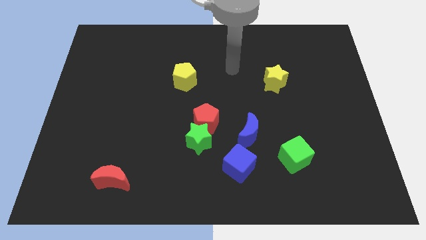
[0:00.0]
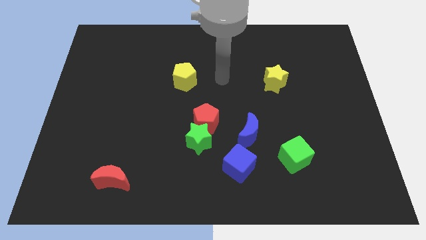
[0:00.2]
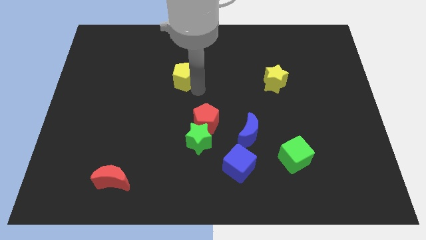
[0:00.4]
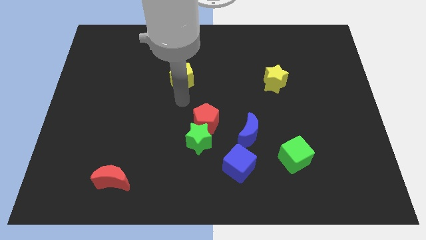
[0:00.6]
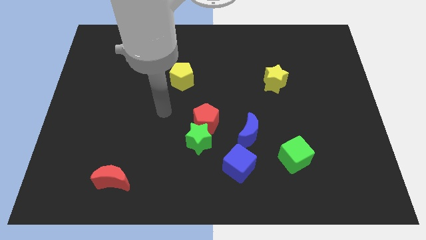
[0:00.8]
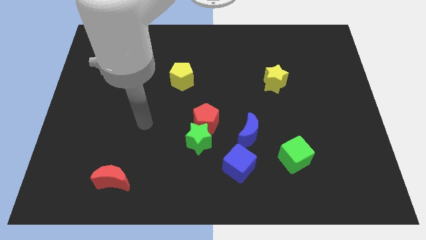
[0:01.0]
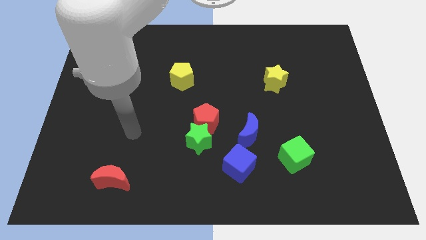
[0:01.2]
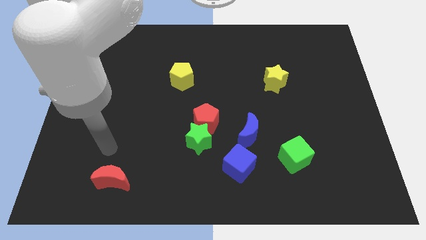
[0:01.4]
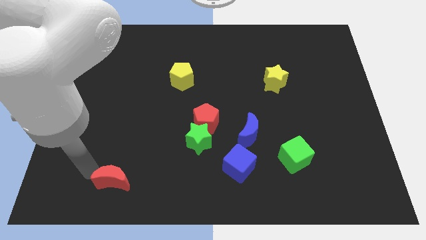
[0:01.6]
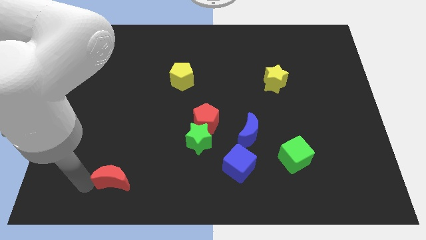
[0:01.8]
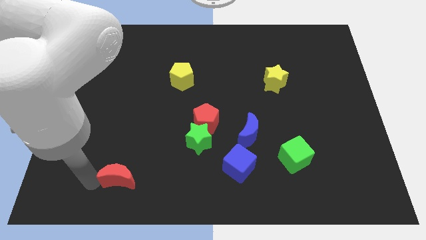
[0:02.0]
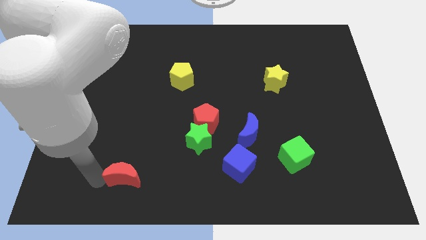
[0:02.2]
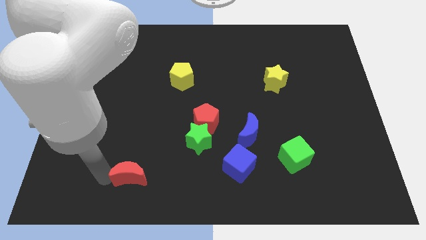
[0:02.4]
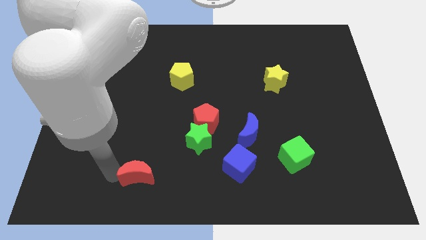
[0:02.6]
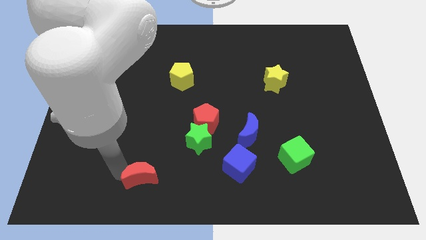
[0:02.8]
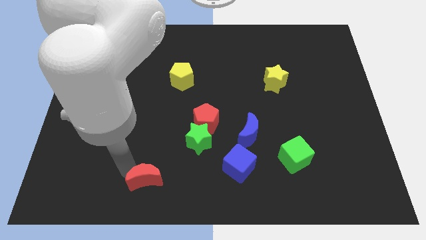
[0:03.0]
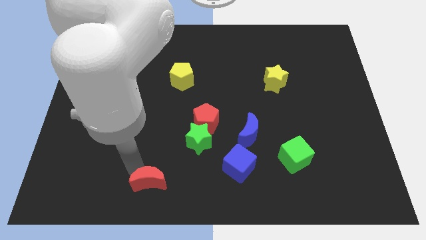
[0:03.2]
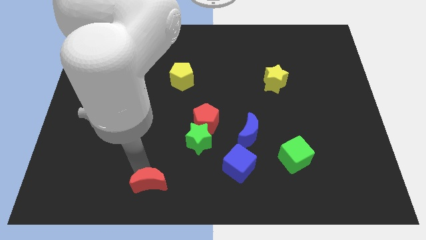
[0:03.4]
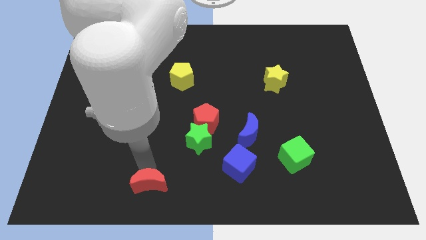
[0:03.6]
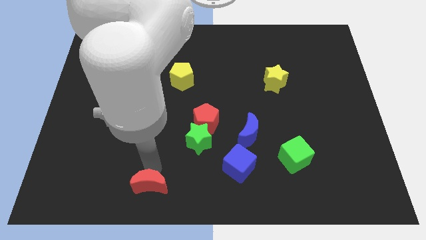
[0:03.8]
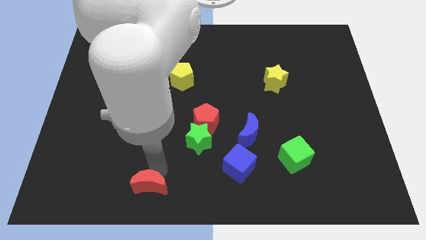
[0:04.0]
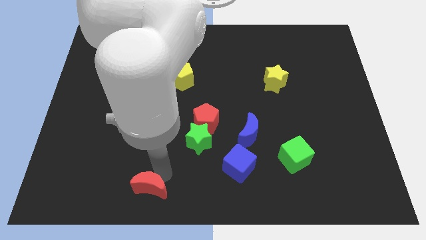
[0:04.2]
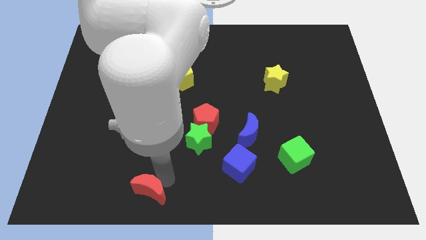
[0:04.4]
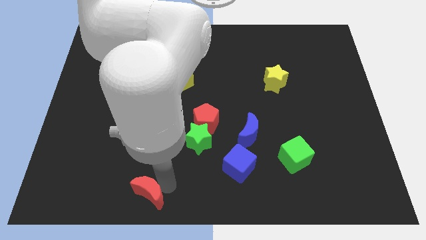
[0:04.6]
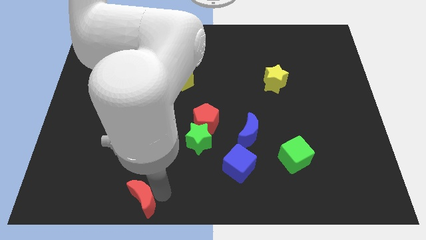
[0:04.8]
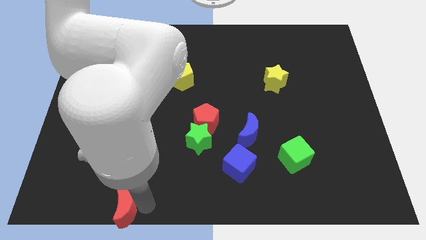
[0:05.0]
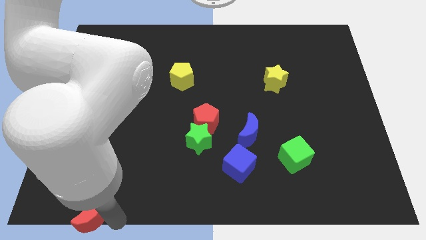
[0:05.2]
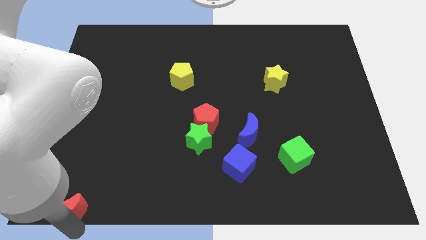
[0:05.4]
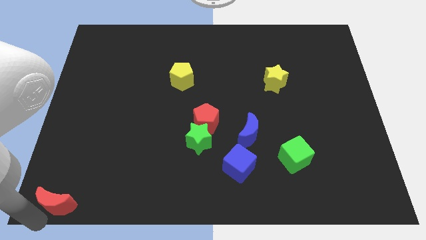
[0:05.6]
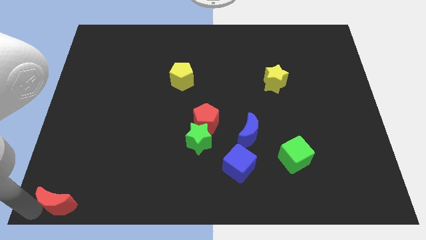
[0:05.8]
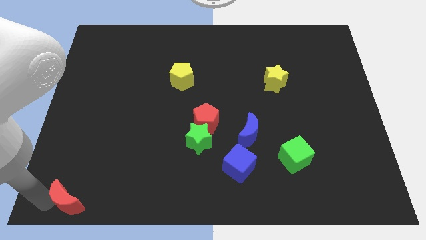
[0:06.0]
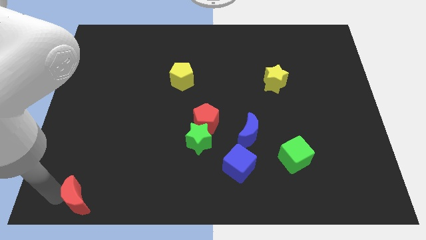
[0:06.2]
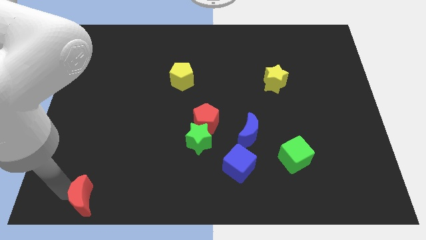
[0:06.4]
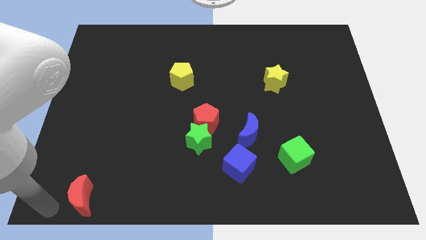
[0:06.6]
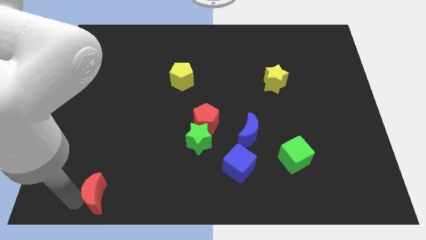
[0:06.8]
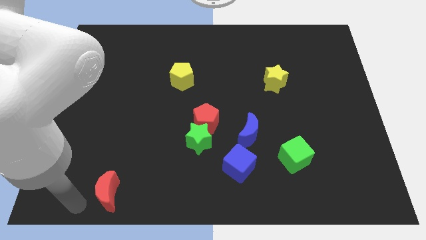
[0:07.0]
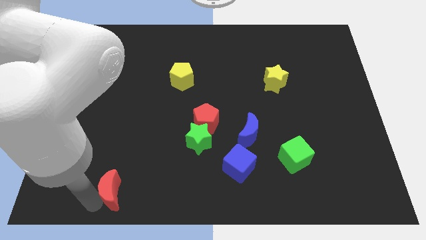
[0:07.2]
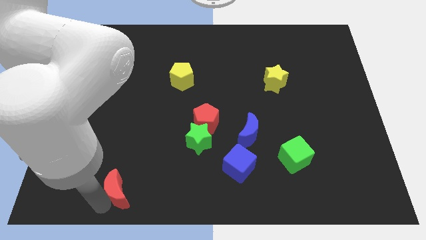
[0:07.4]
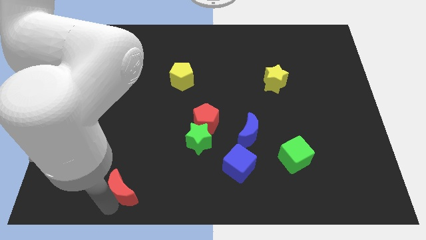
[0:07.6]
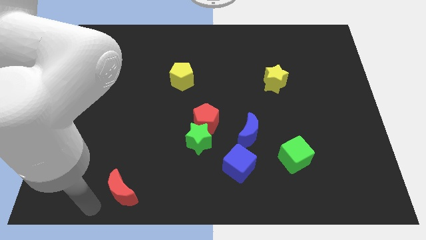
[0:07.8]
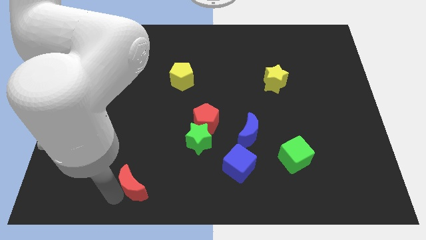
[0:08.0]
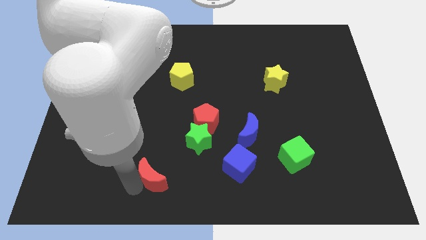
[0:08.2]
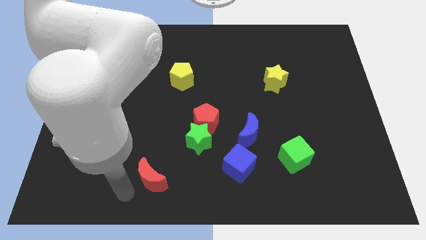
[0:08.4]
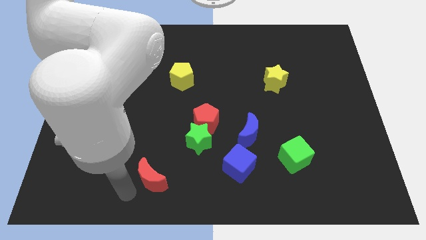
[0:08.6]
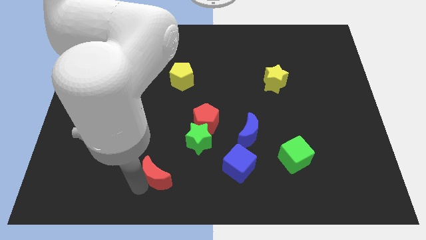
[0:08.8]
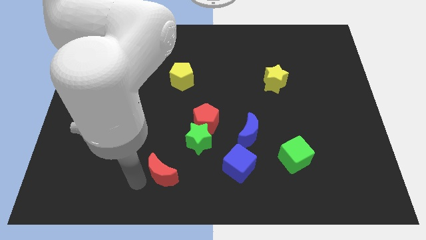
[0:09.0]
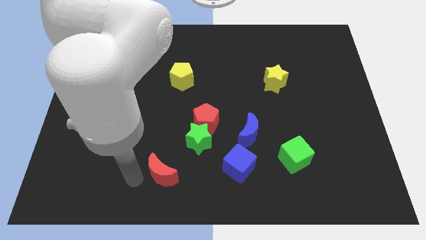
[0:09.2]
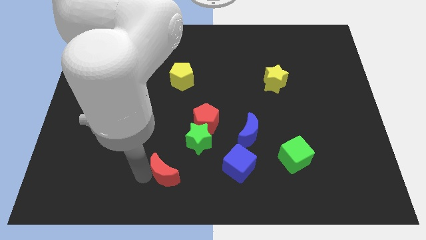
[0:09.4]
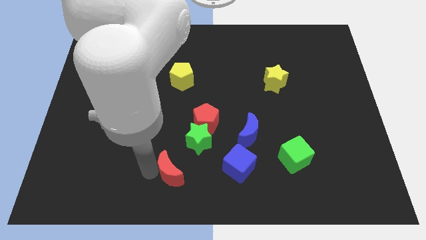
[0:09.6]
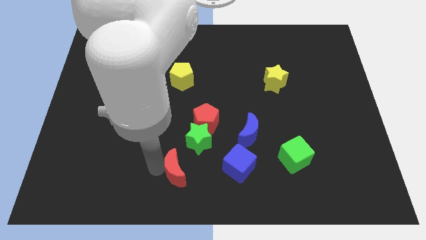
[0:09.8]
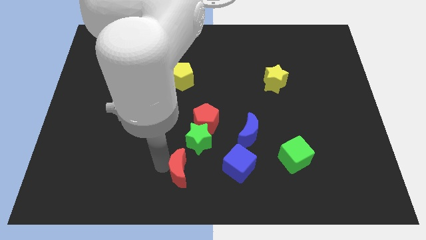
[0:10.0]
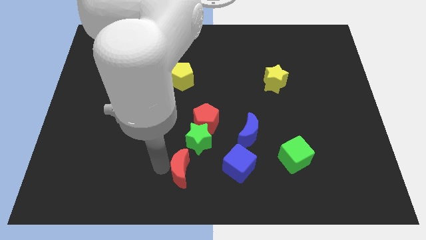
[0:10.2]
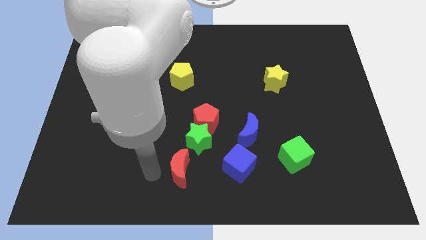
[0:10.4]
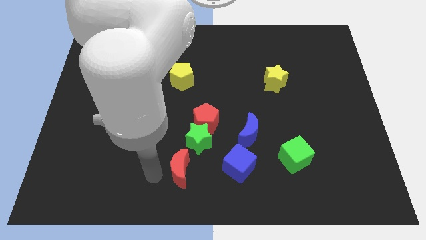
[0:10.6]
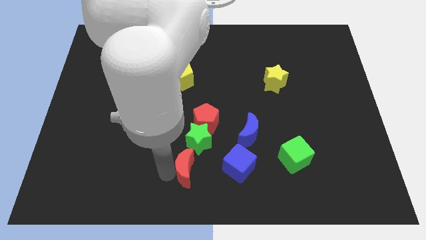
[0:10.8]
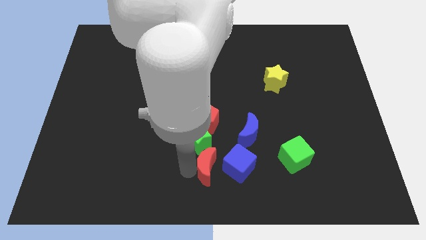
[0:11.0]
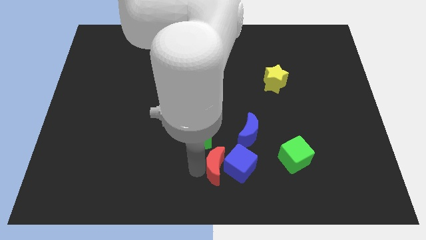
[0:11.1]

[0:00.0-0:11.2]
slide the red moon next to the blue cube

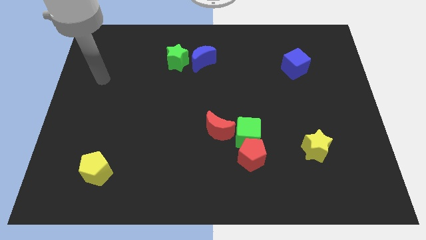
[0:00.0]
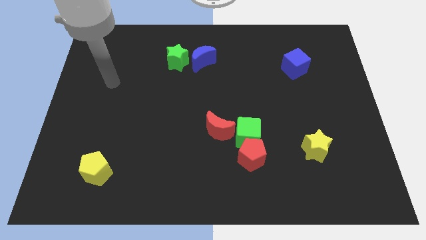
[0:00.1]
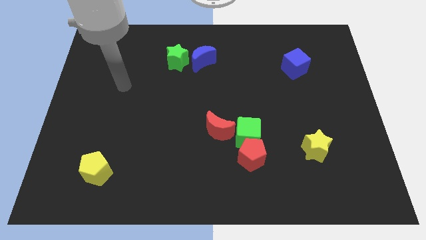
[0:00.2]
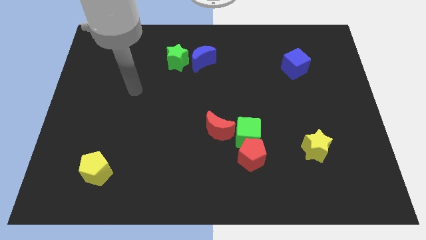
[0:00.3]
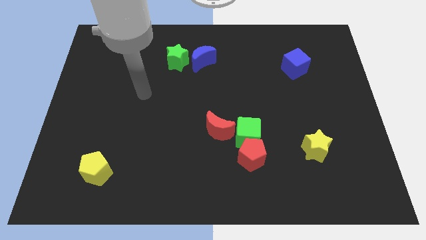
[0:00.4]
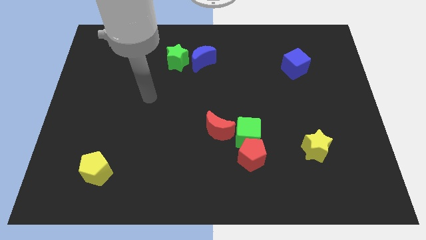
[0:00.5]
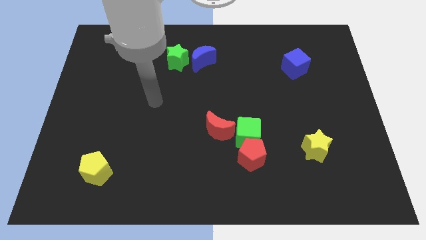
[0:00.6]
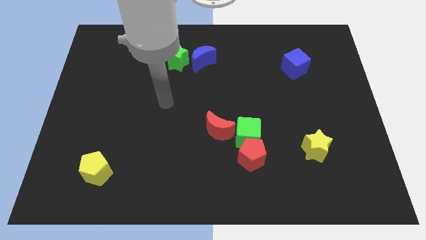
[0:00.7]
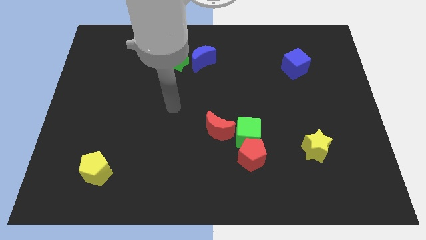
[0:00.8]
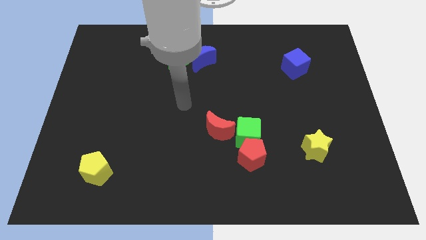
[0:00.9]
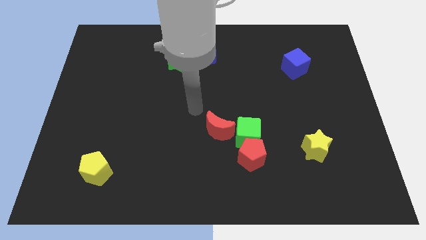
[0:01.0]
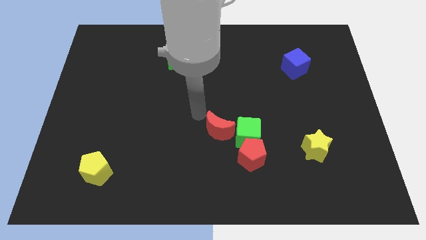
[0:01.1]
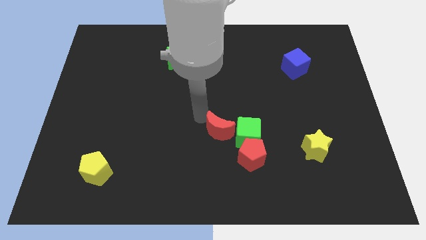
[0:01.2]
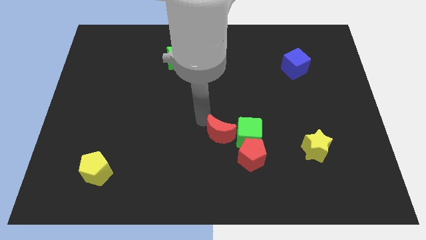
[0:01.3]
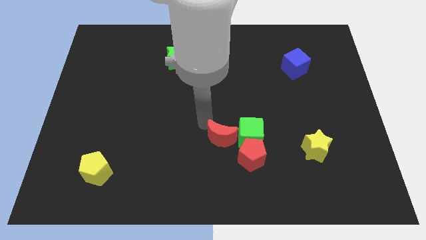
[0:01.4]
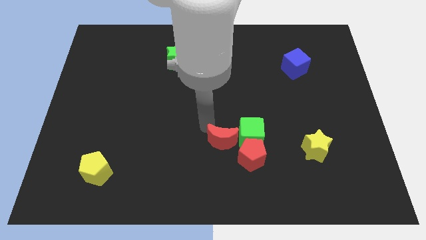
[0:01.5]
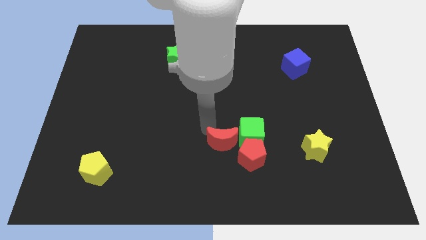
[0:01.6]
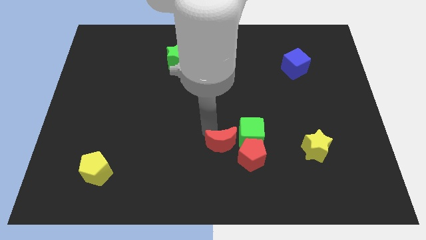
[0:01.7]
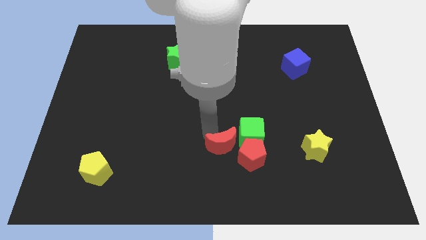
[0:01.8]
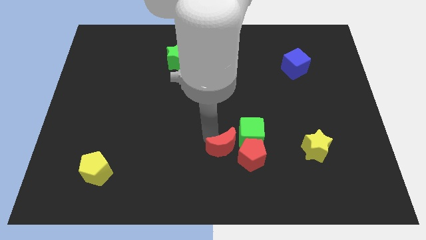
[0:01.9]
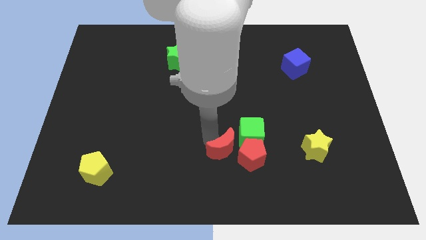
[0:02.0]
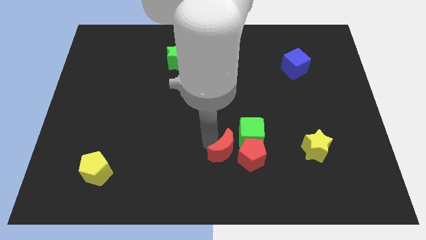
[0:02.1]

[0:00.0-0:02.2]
slide the red moon close to the red pentagon
